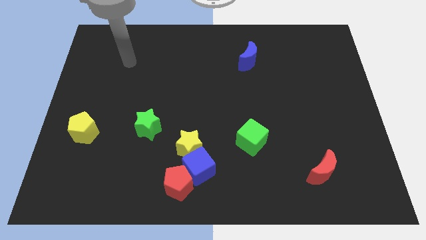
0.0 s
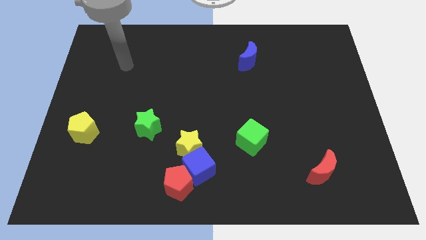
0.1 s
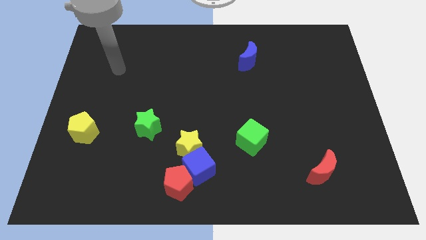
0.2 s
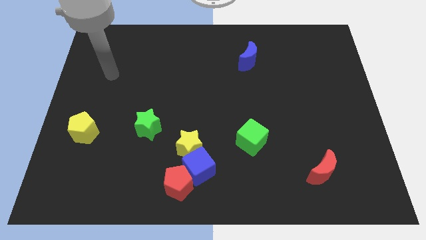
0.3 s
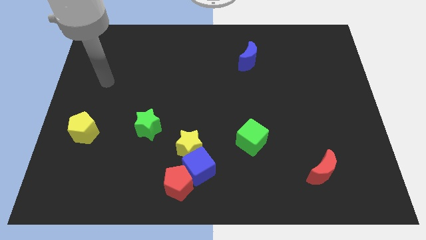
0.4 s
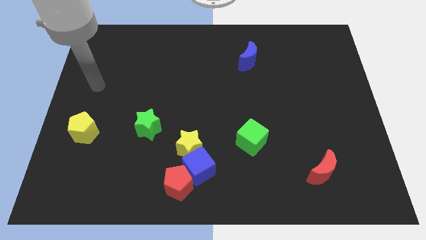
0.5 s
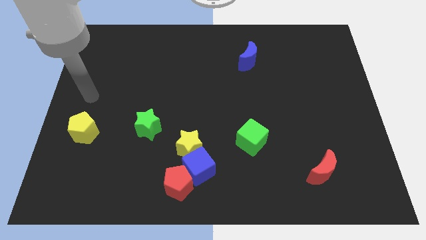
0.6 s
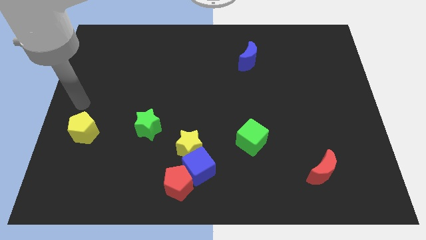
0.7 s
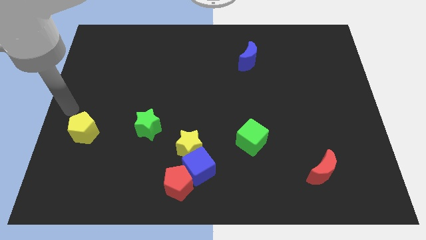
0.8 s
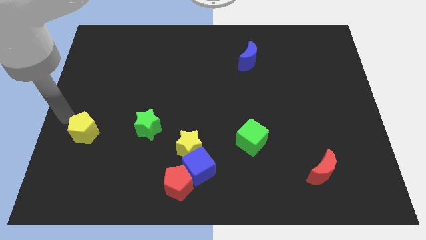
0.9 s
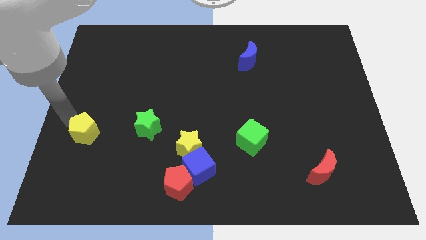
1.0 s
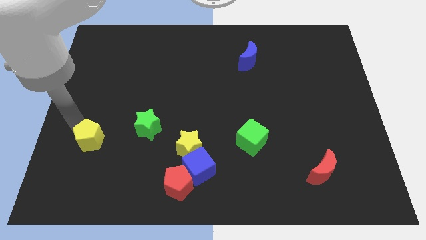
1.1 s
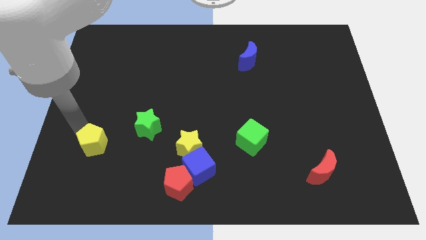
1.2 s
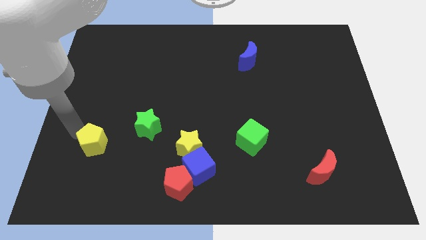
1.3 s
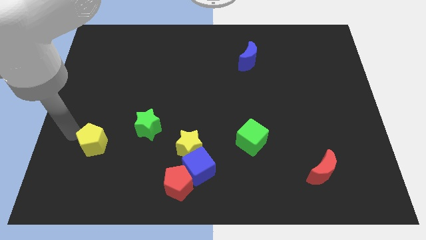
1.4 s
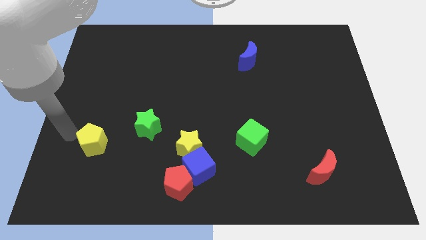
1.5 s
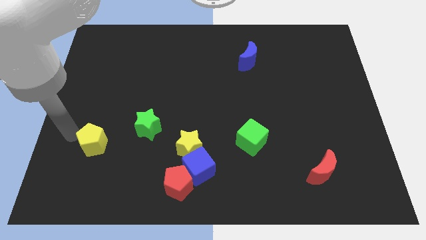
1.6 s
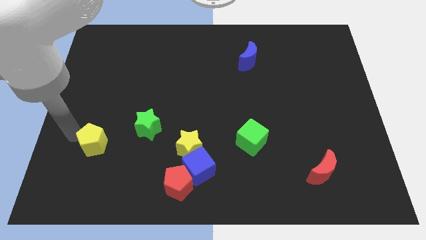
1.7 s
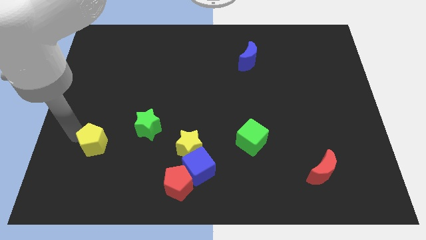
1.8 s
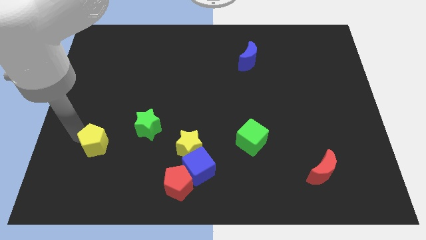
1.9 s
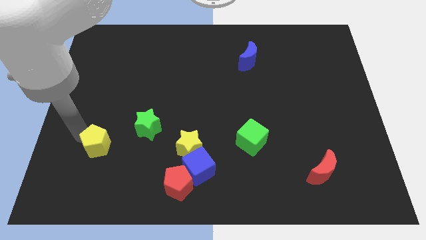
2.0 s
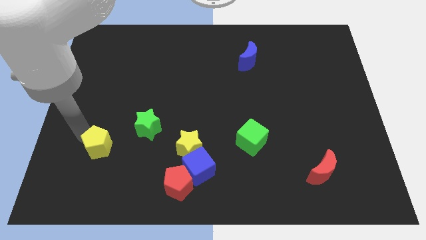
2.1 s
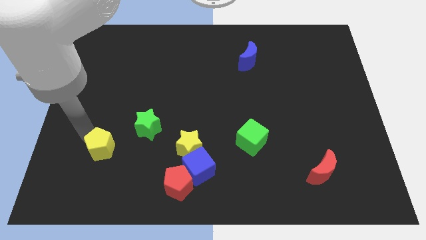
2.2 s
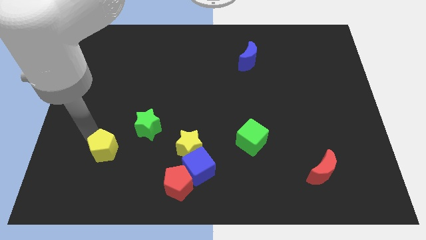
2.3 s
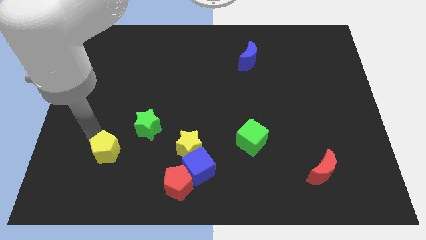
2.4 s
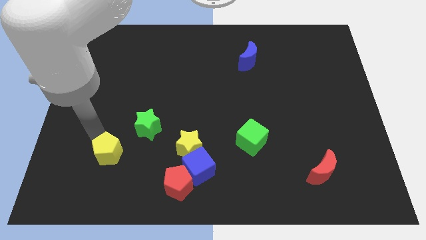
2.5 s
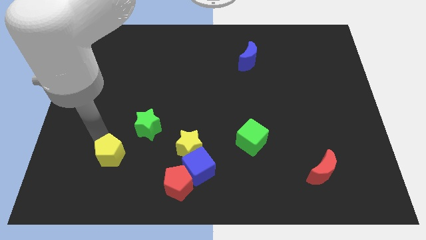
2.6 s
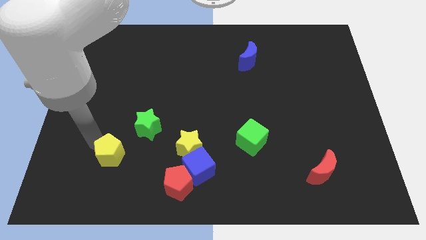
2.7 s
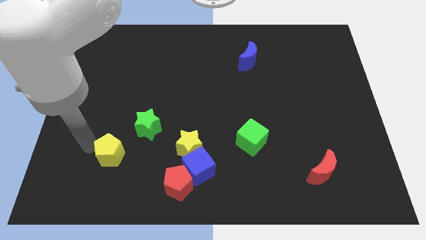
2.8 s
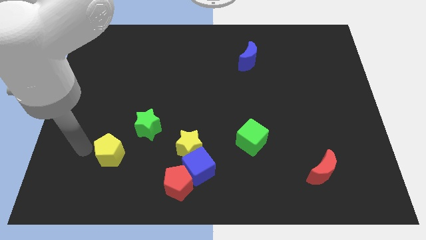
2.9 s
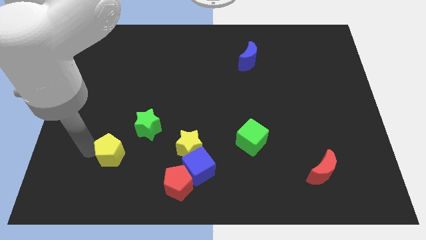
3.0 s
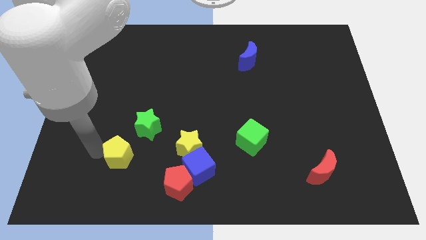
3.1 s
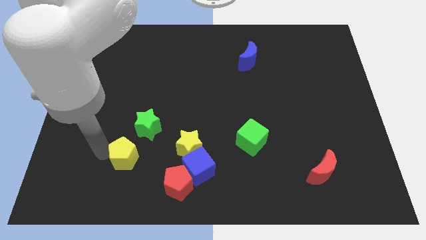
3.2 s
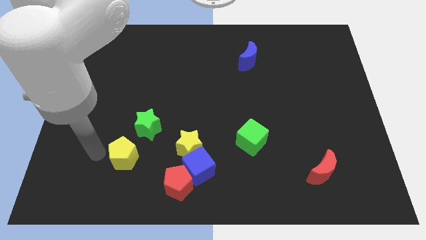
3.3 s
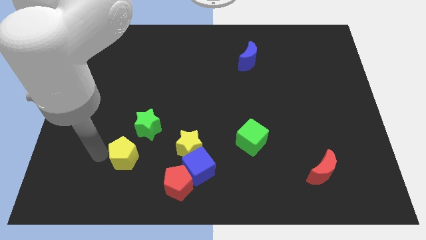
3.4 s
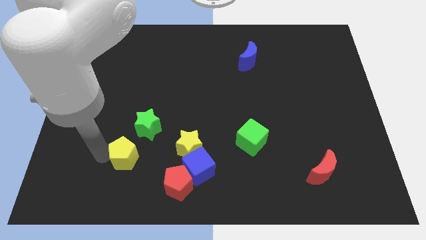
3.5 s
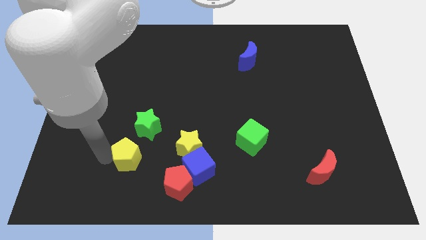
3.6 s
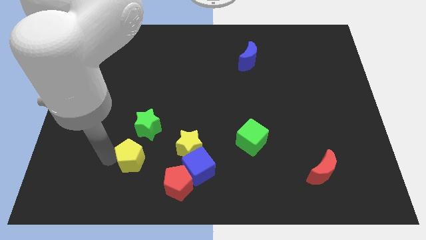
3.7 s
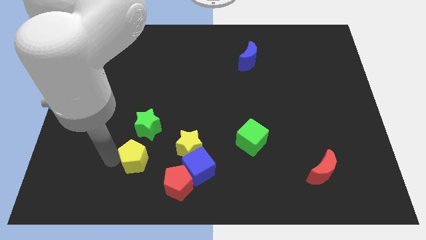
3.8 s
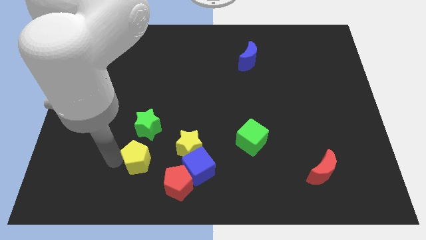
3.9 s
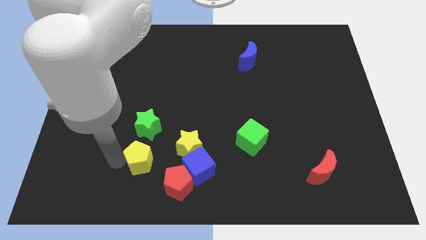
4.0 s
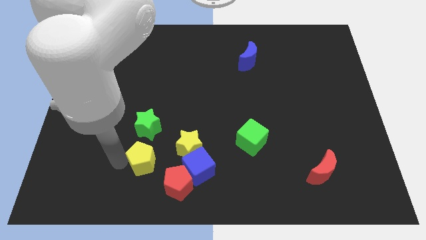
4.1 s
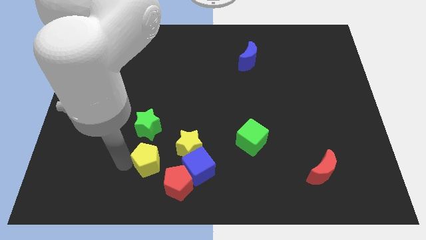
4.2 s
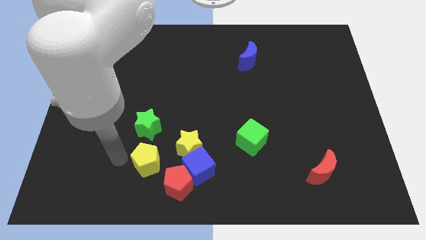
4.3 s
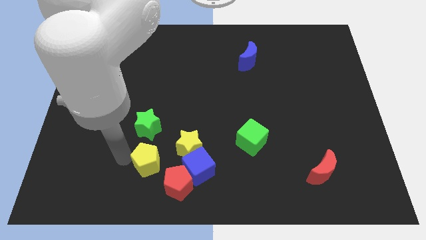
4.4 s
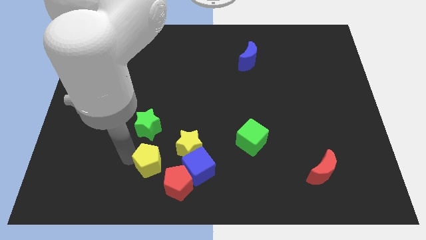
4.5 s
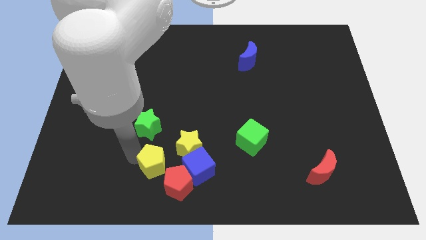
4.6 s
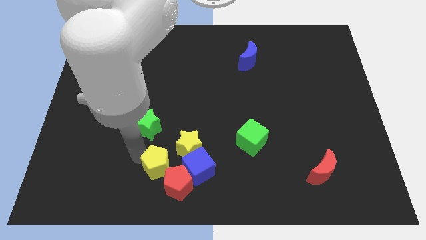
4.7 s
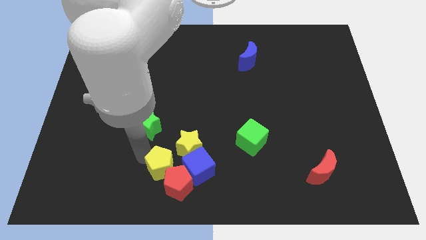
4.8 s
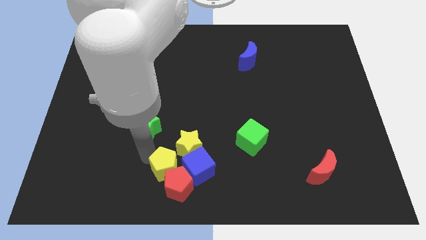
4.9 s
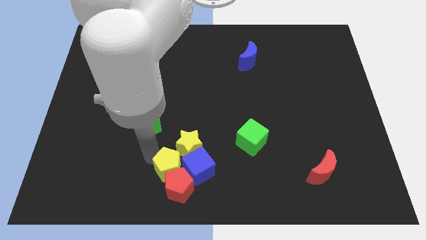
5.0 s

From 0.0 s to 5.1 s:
put the yellow pentagon next to the blue cube

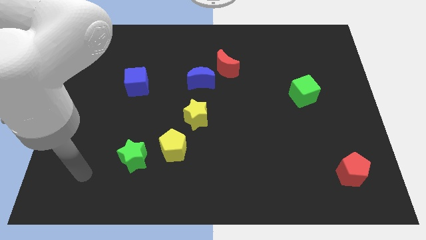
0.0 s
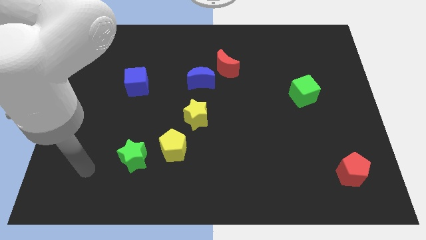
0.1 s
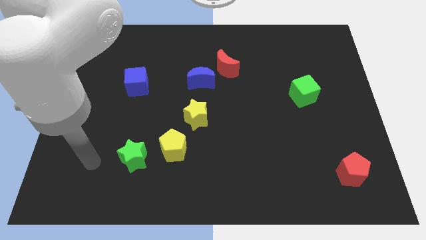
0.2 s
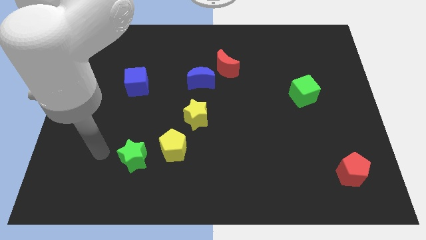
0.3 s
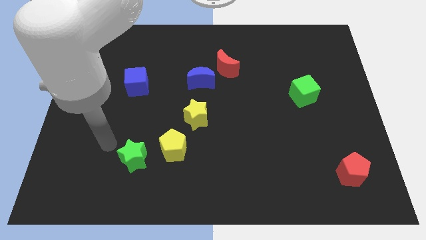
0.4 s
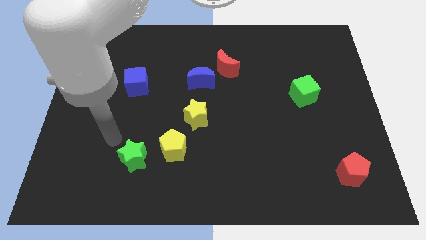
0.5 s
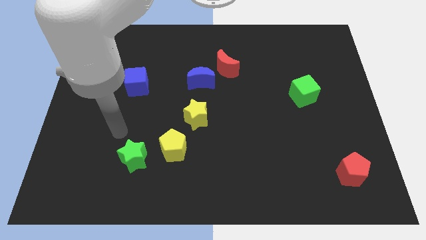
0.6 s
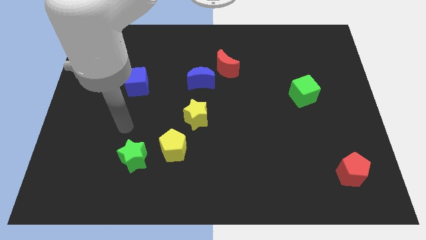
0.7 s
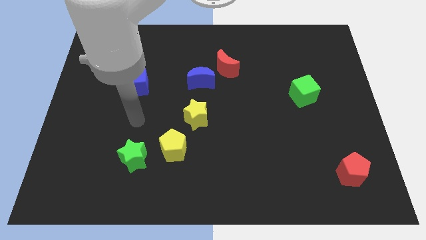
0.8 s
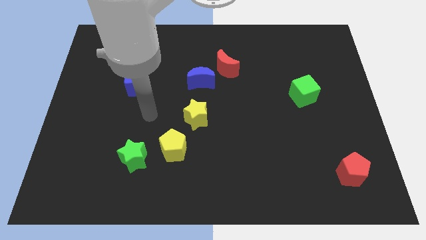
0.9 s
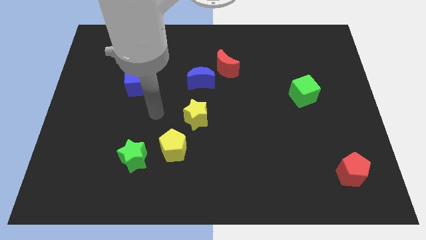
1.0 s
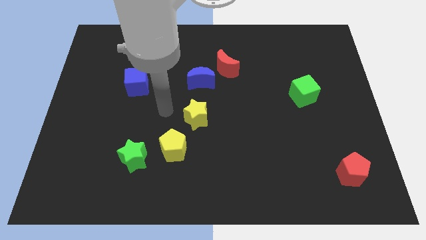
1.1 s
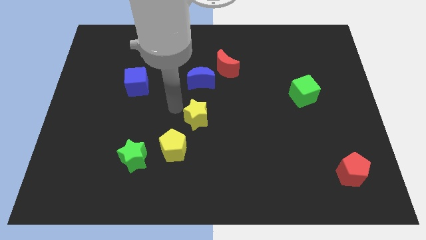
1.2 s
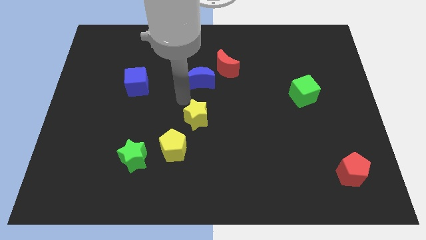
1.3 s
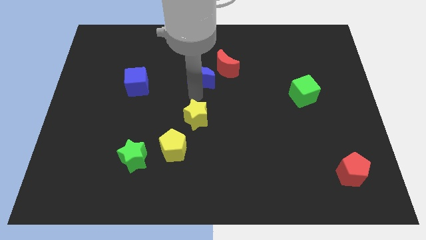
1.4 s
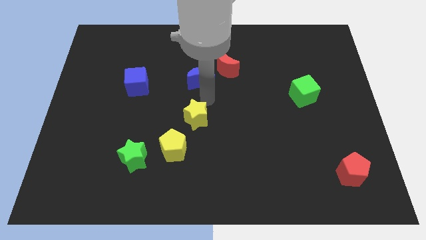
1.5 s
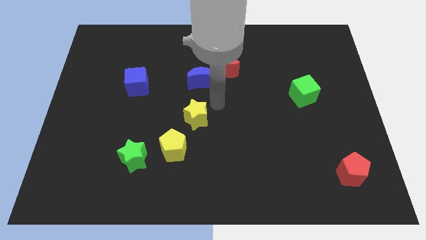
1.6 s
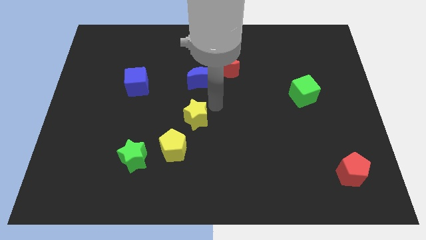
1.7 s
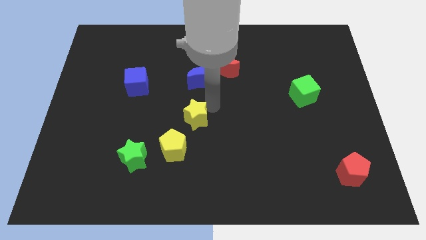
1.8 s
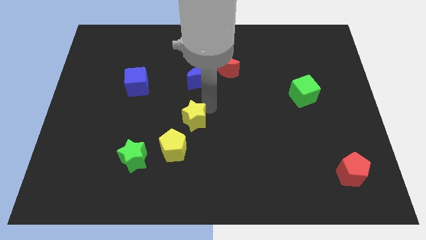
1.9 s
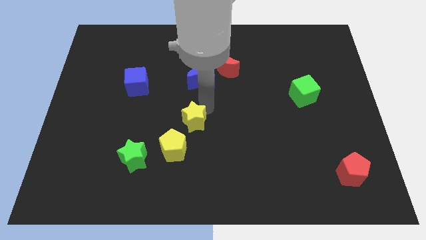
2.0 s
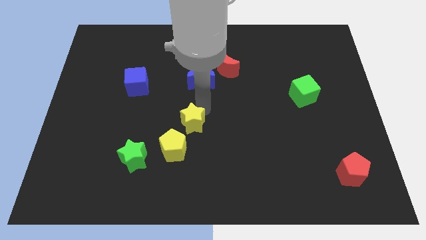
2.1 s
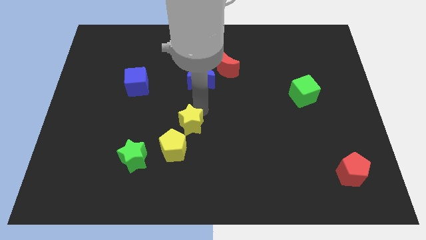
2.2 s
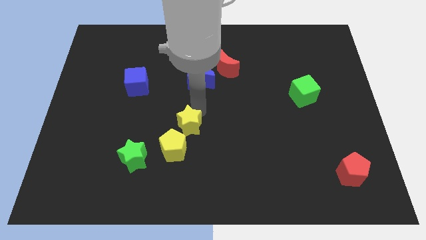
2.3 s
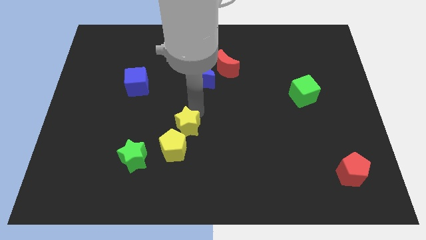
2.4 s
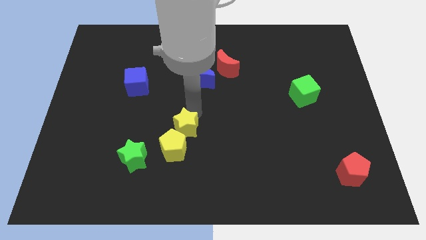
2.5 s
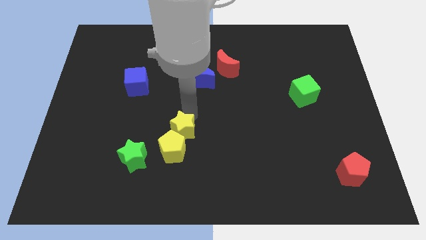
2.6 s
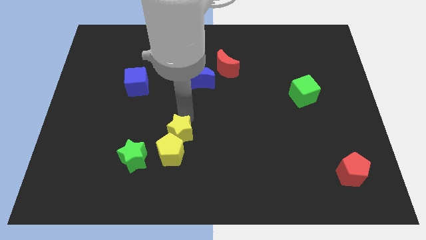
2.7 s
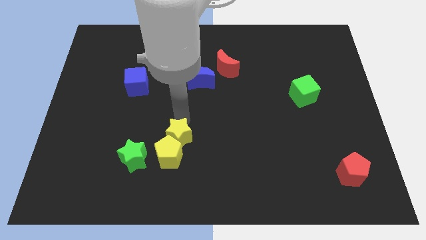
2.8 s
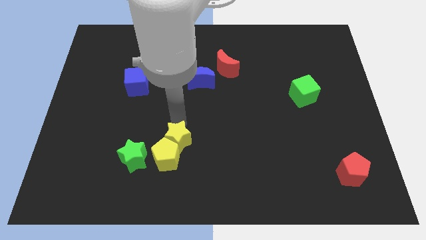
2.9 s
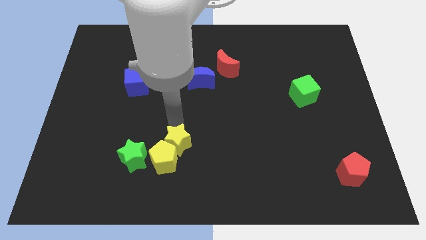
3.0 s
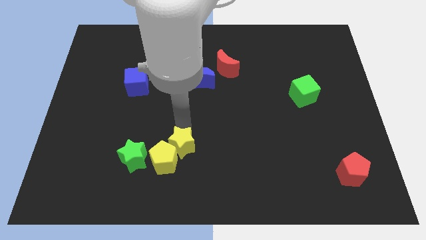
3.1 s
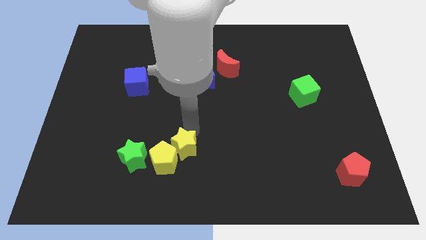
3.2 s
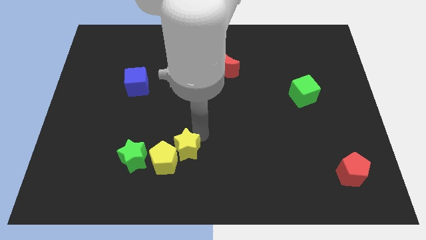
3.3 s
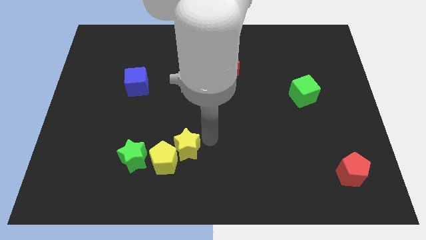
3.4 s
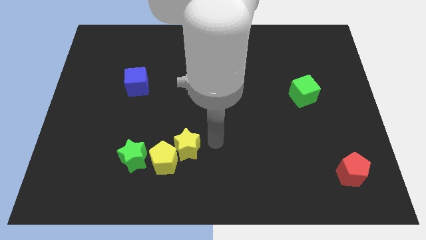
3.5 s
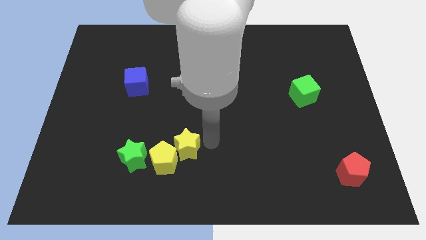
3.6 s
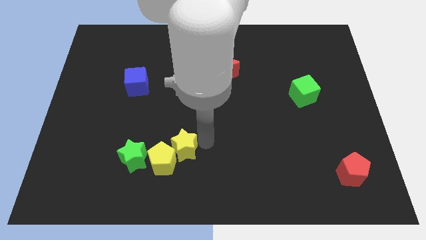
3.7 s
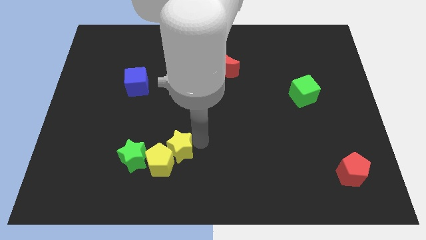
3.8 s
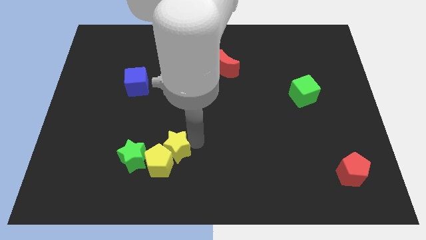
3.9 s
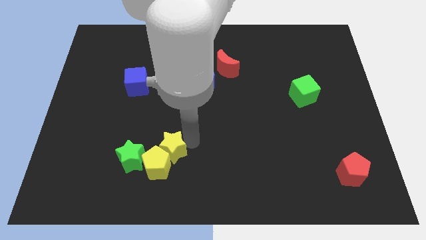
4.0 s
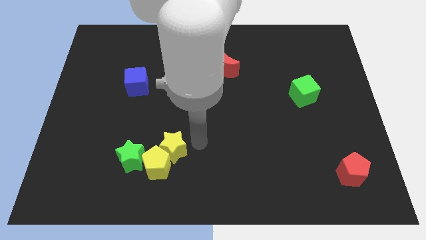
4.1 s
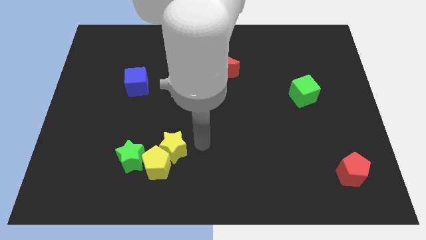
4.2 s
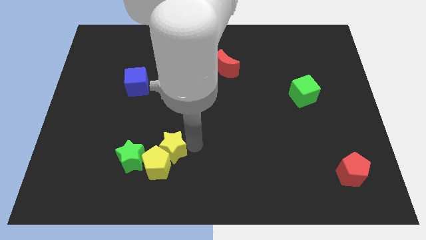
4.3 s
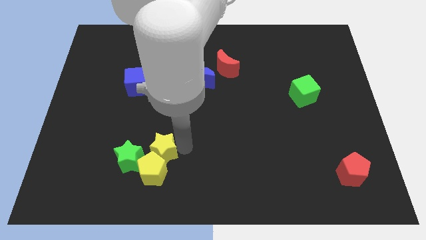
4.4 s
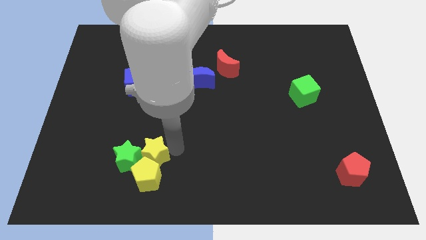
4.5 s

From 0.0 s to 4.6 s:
slide the yellow star next to the green star
